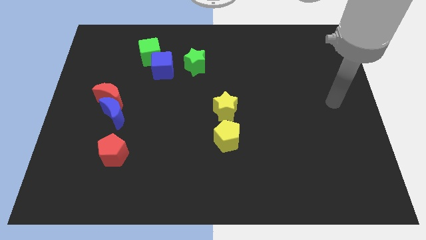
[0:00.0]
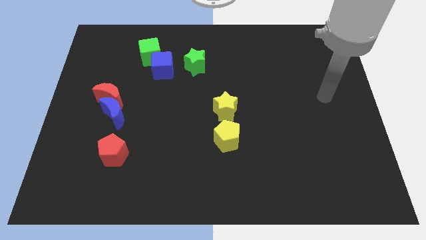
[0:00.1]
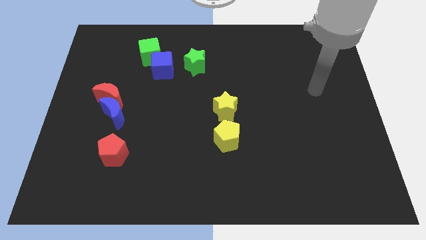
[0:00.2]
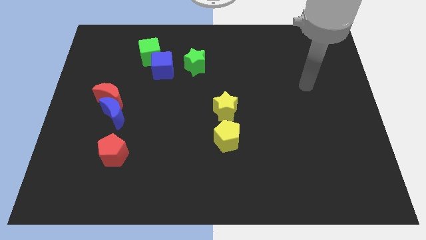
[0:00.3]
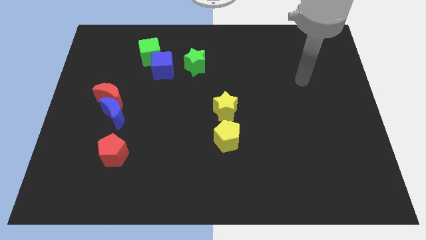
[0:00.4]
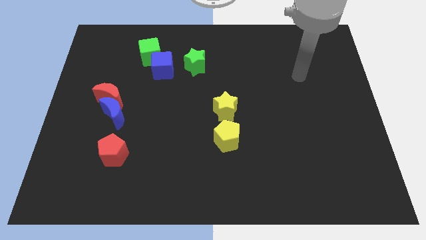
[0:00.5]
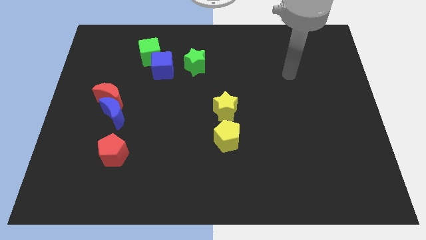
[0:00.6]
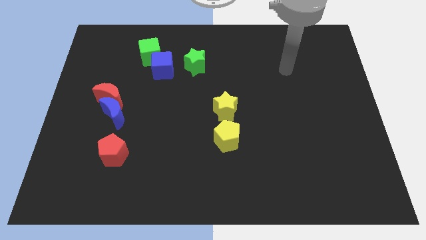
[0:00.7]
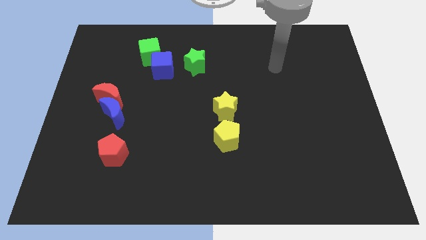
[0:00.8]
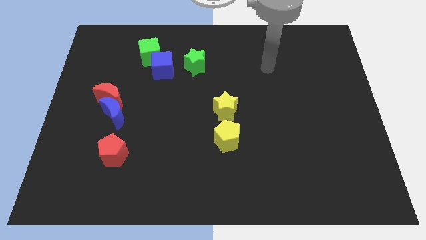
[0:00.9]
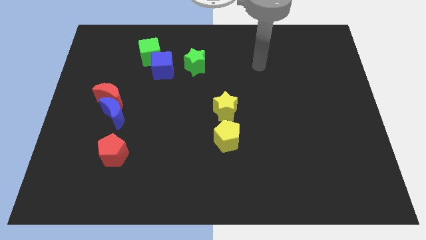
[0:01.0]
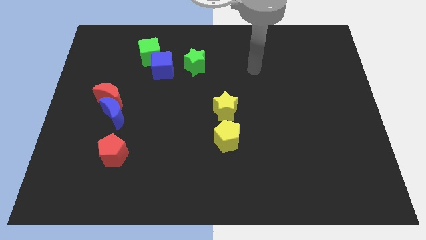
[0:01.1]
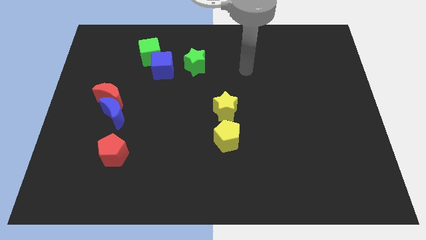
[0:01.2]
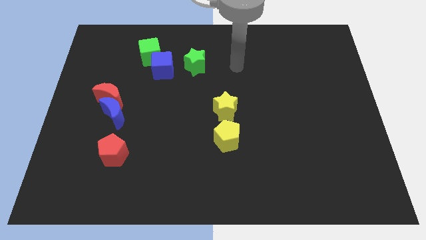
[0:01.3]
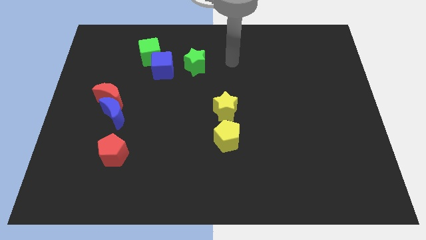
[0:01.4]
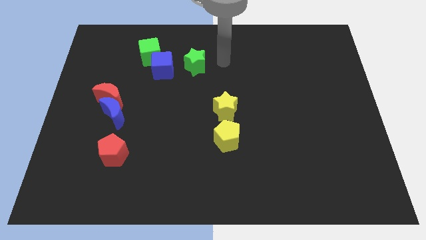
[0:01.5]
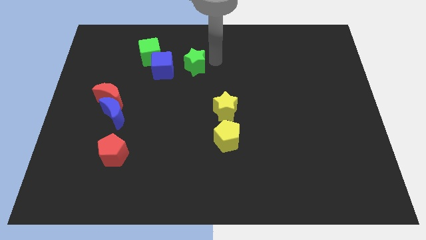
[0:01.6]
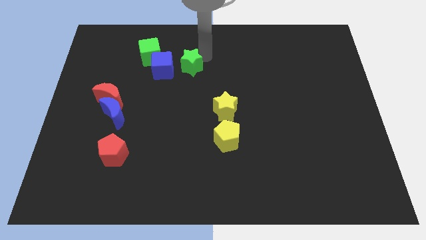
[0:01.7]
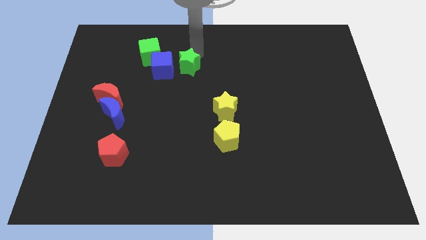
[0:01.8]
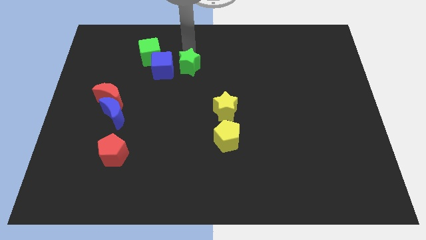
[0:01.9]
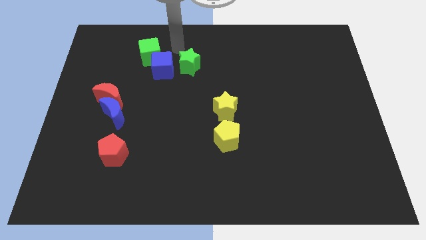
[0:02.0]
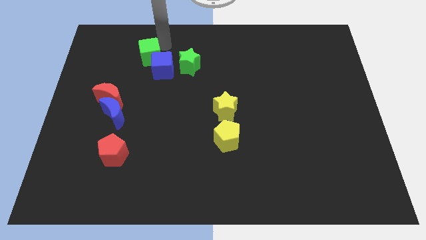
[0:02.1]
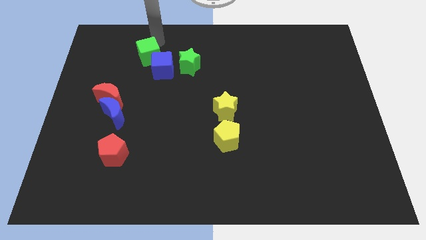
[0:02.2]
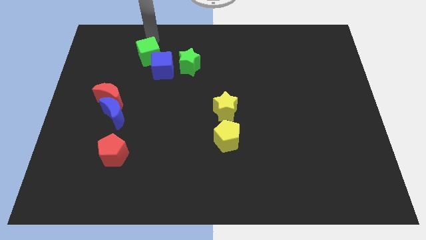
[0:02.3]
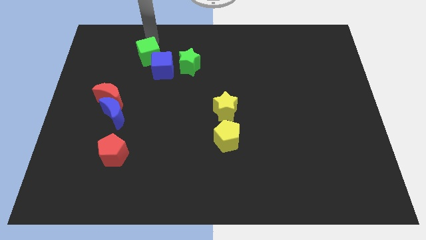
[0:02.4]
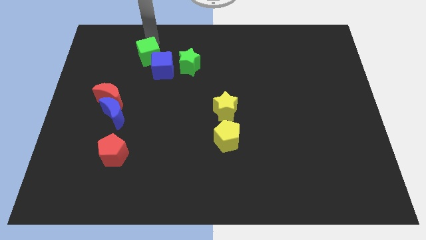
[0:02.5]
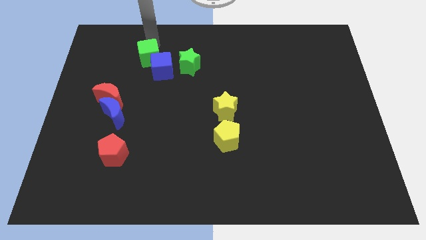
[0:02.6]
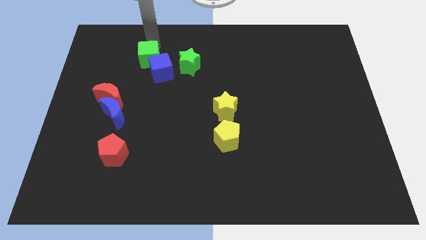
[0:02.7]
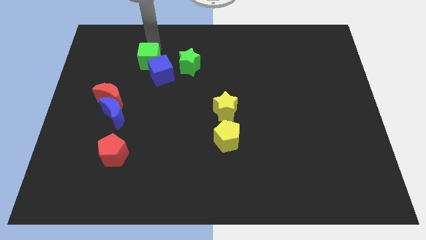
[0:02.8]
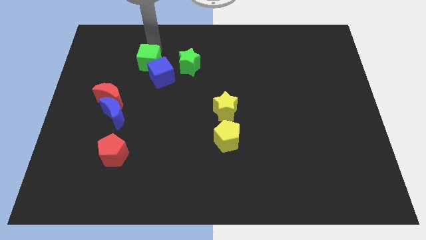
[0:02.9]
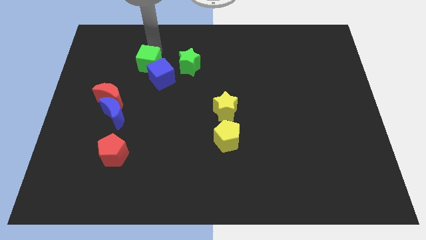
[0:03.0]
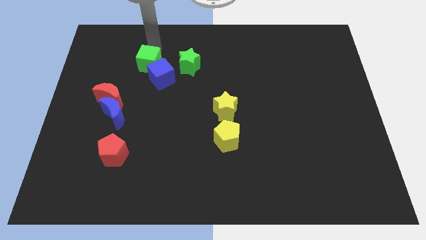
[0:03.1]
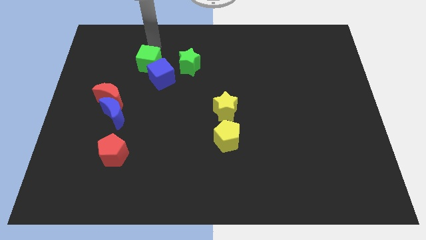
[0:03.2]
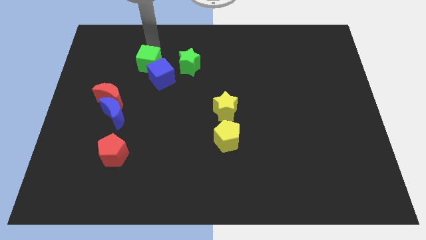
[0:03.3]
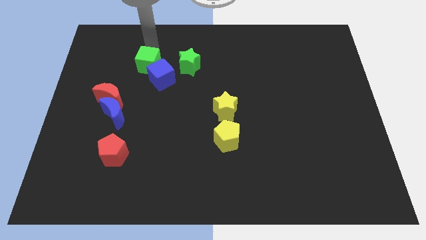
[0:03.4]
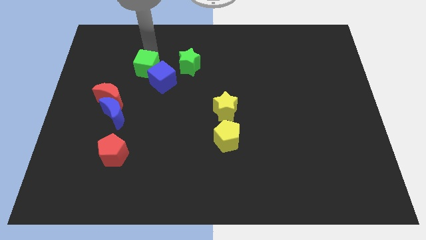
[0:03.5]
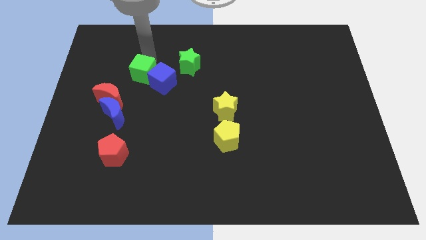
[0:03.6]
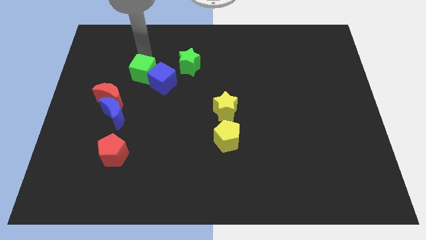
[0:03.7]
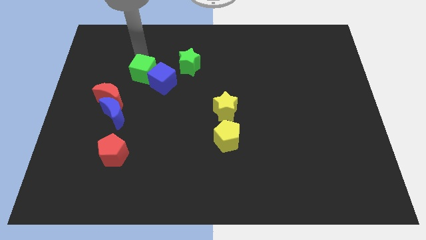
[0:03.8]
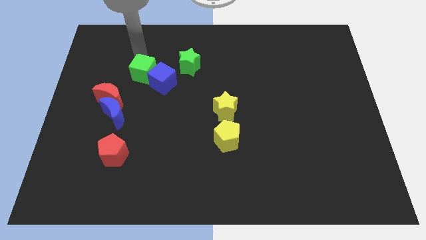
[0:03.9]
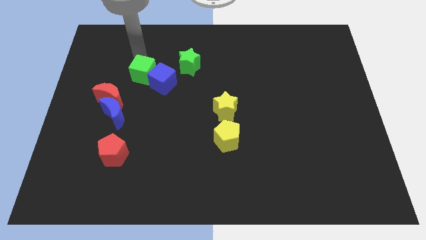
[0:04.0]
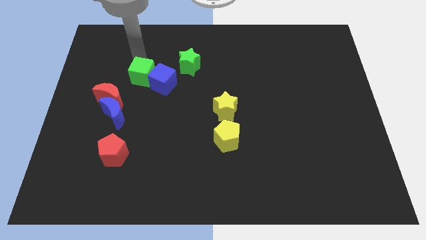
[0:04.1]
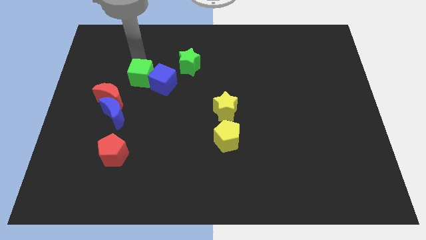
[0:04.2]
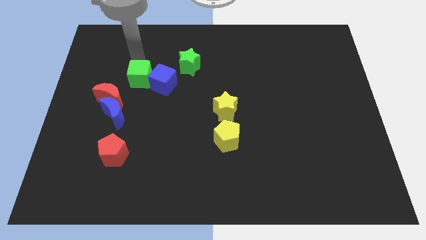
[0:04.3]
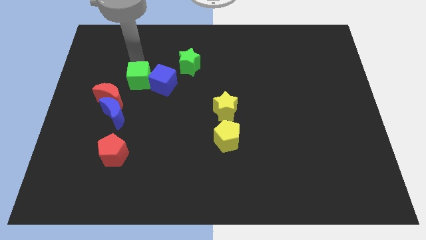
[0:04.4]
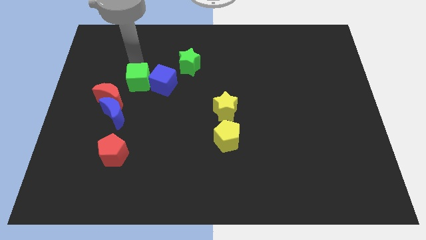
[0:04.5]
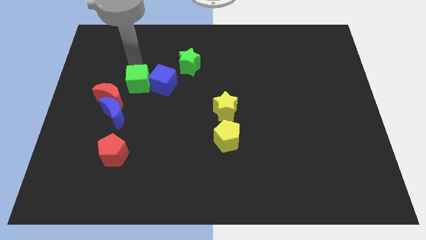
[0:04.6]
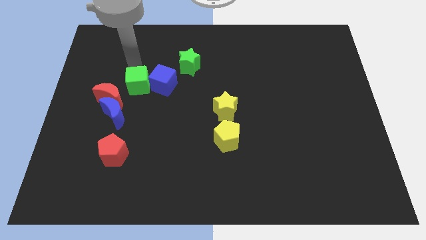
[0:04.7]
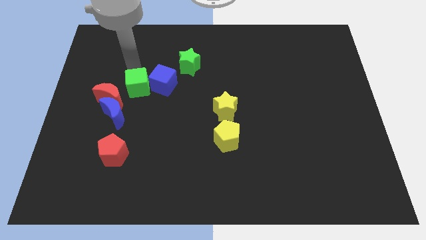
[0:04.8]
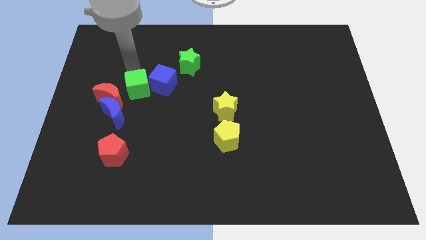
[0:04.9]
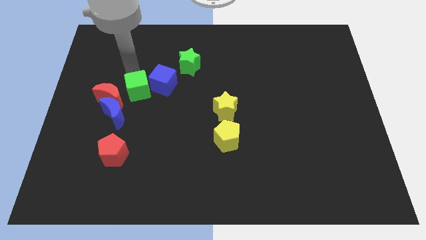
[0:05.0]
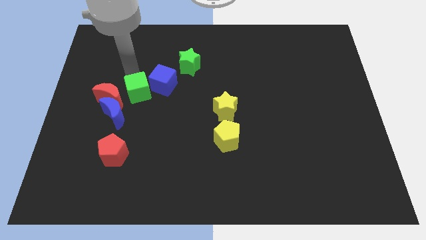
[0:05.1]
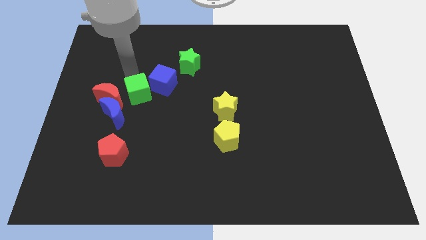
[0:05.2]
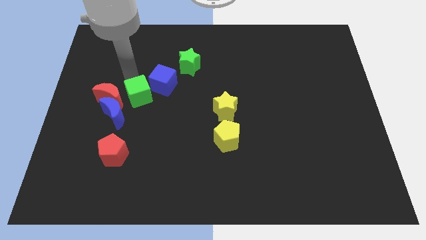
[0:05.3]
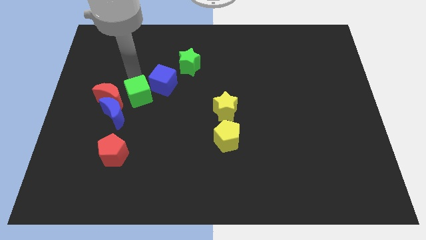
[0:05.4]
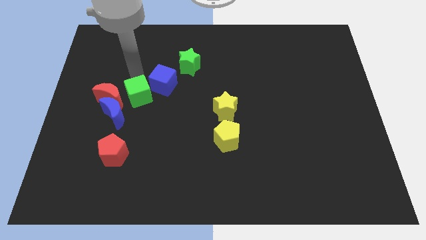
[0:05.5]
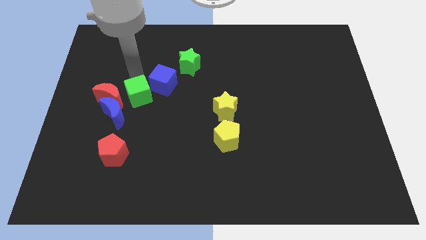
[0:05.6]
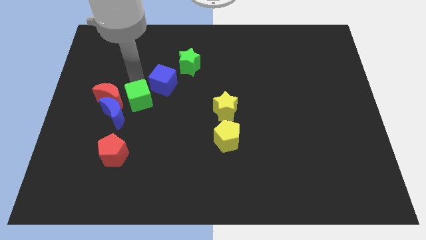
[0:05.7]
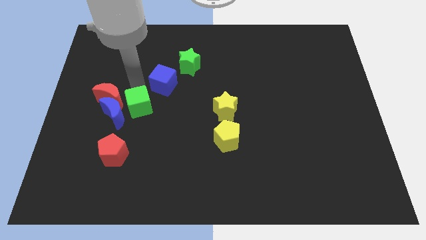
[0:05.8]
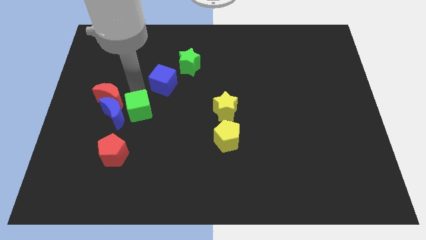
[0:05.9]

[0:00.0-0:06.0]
slide the green cube to the bottom right side of the blue moon

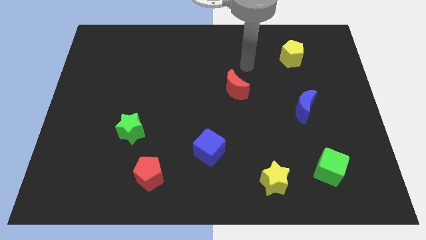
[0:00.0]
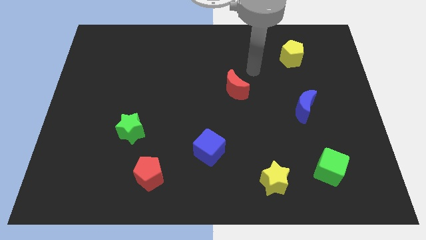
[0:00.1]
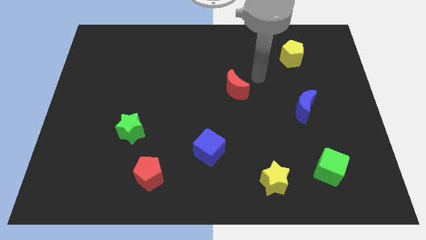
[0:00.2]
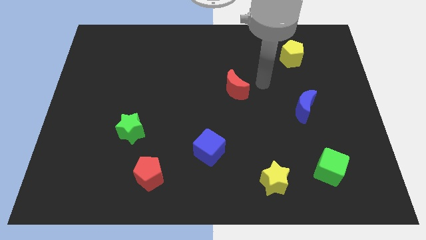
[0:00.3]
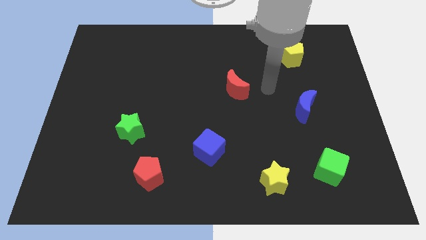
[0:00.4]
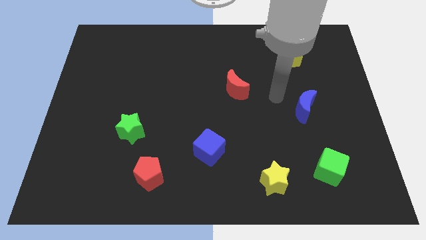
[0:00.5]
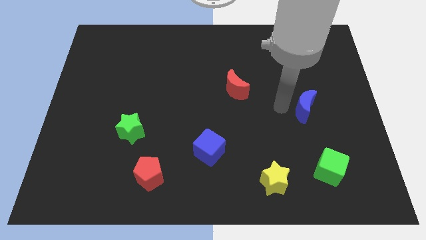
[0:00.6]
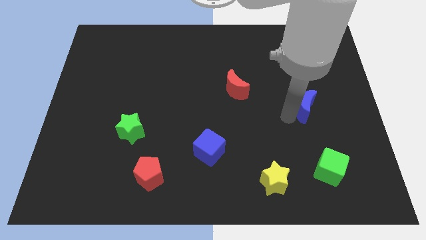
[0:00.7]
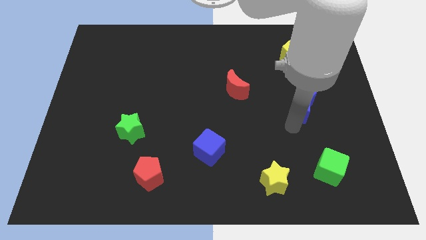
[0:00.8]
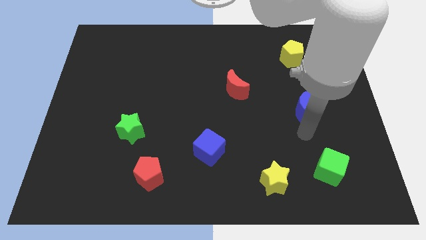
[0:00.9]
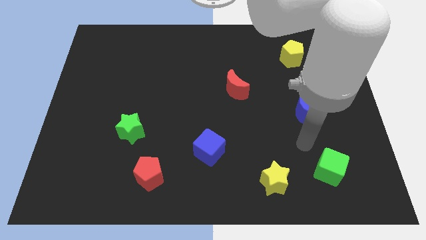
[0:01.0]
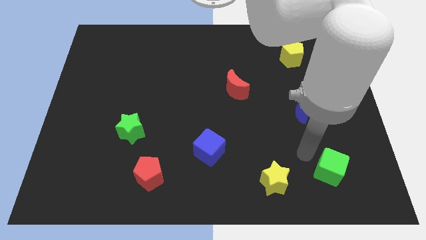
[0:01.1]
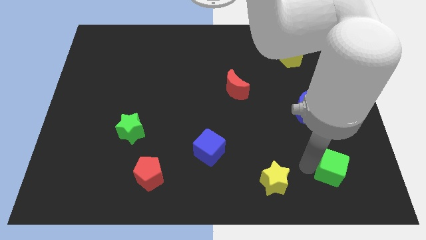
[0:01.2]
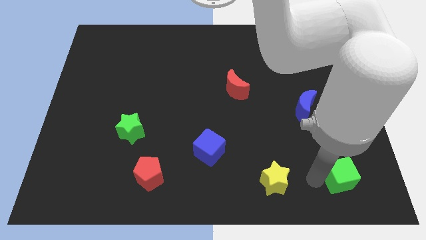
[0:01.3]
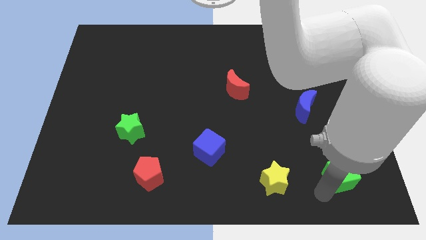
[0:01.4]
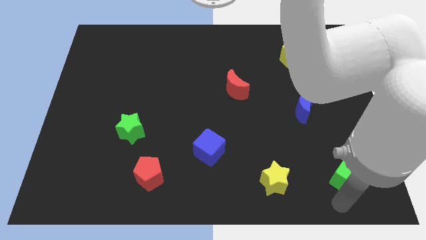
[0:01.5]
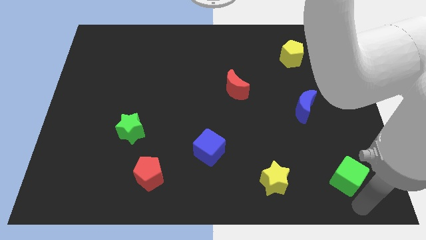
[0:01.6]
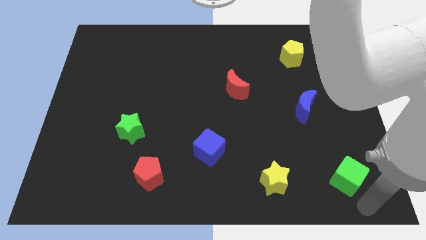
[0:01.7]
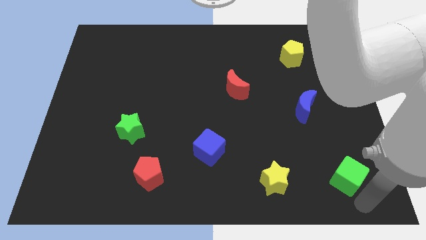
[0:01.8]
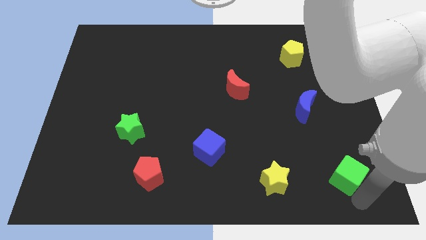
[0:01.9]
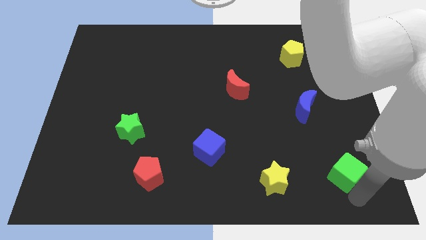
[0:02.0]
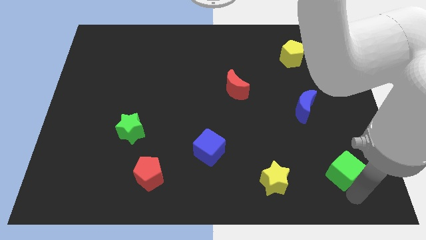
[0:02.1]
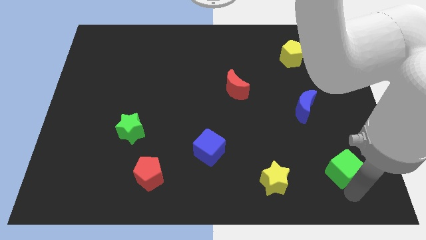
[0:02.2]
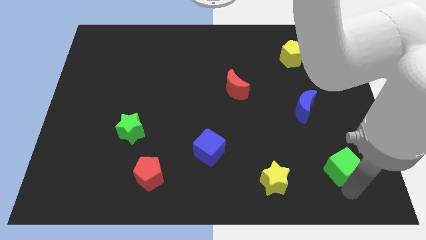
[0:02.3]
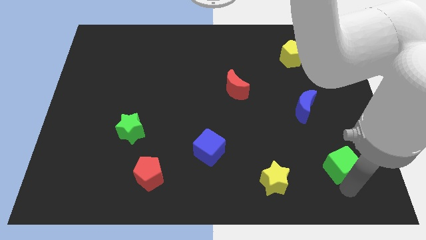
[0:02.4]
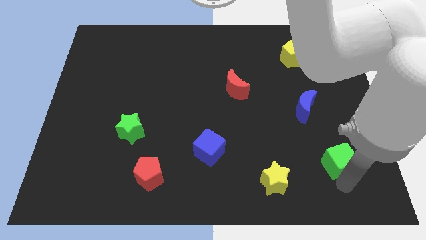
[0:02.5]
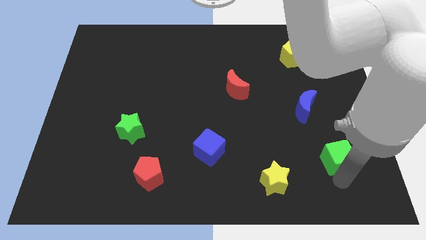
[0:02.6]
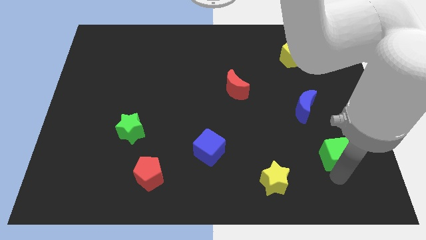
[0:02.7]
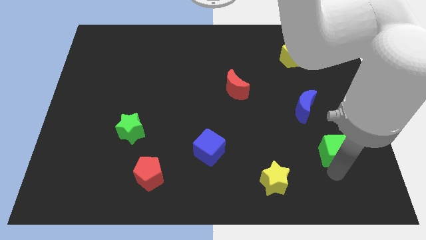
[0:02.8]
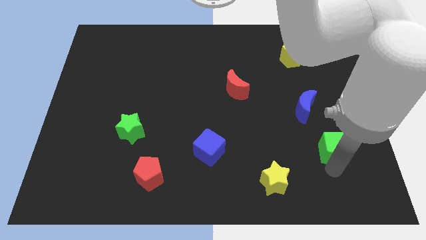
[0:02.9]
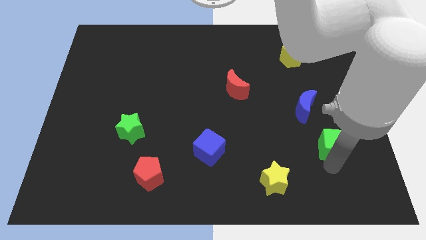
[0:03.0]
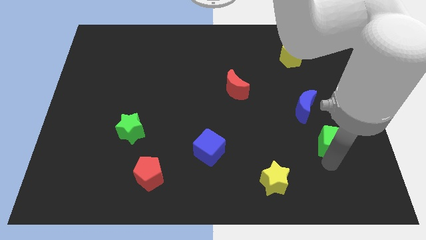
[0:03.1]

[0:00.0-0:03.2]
slide the green cube diagonally down and to the right of the blue moon
